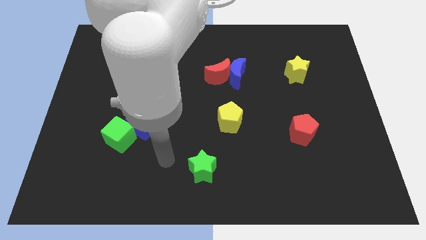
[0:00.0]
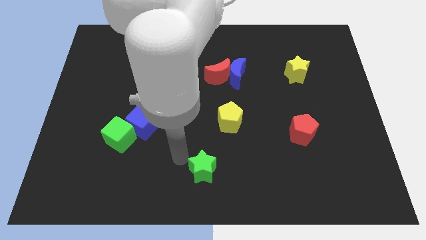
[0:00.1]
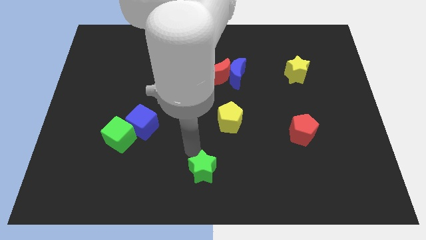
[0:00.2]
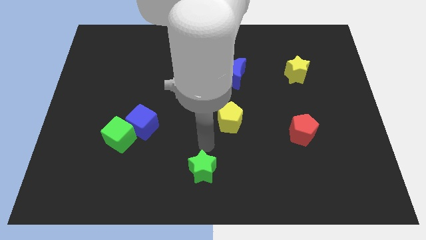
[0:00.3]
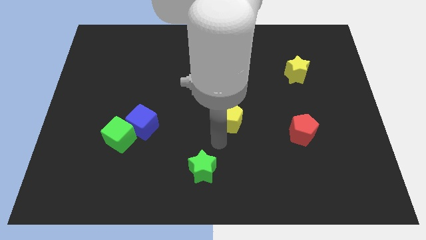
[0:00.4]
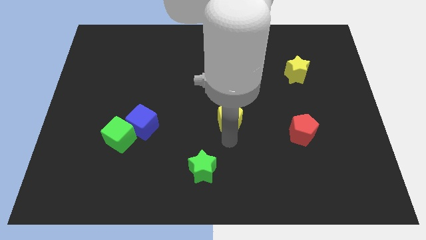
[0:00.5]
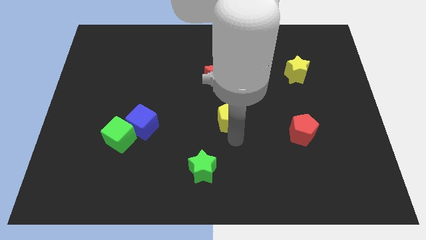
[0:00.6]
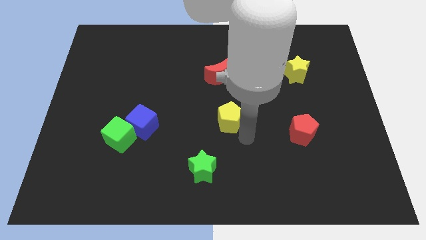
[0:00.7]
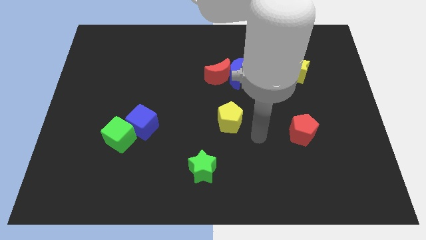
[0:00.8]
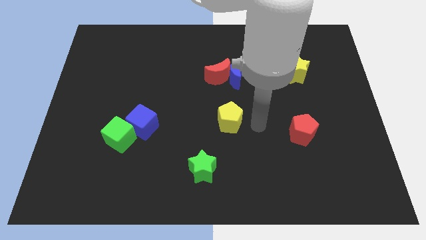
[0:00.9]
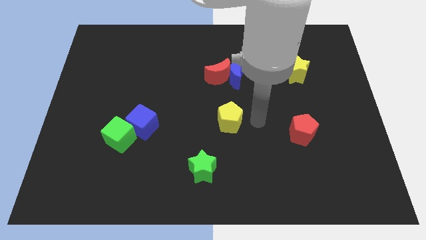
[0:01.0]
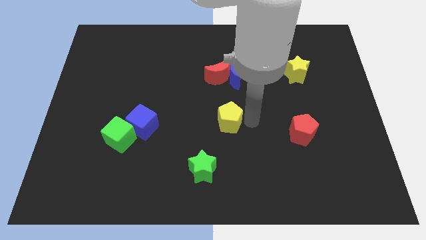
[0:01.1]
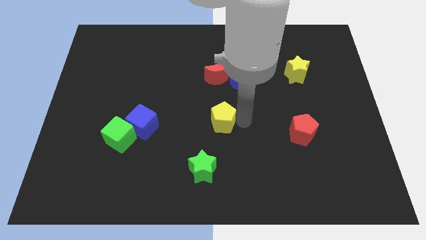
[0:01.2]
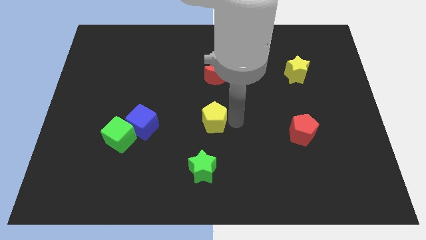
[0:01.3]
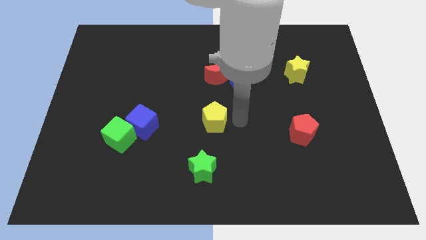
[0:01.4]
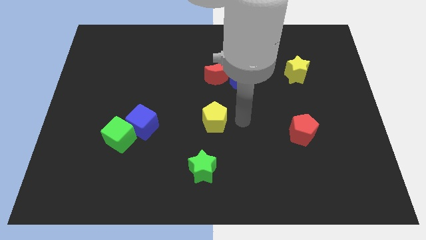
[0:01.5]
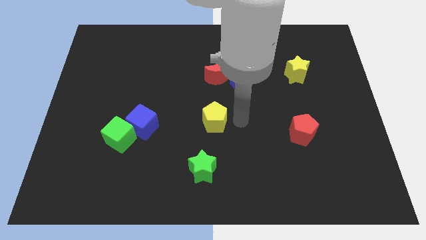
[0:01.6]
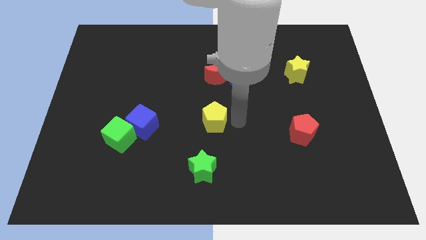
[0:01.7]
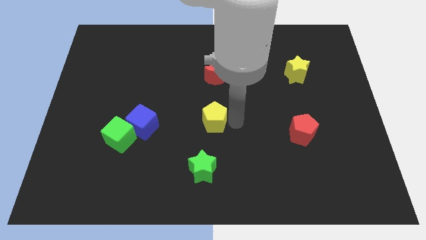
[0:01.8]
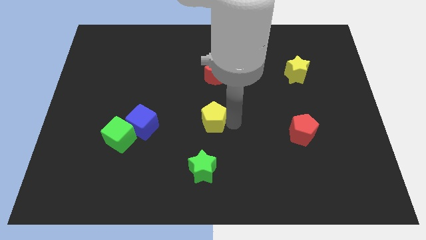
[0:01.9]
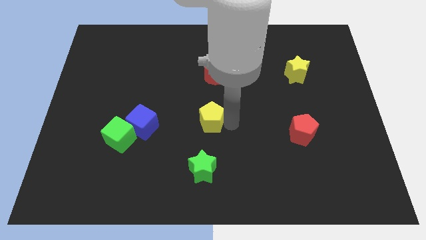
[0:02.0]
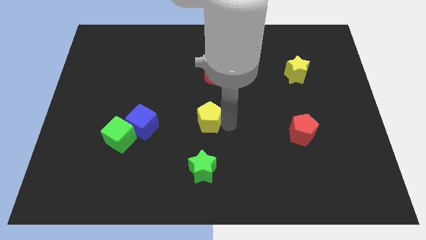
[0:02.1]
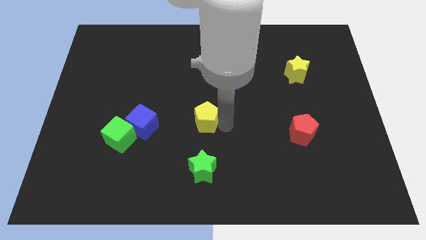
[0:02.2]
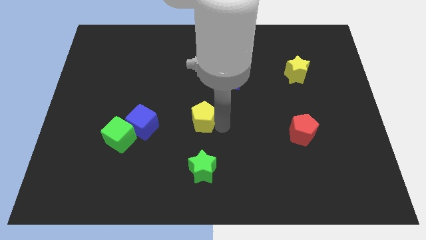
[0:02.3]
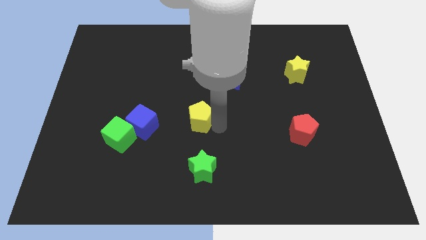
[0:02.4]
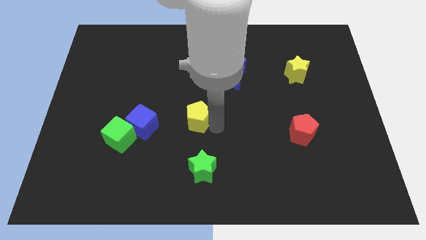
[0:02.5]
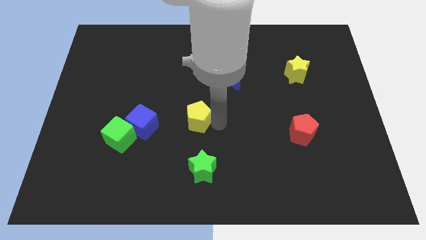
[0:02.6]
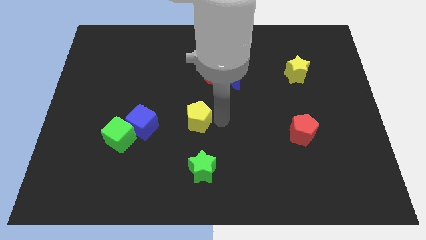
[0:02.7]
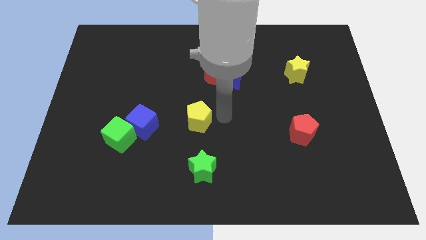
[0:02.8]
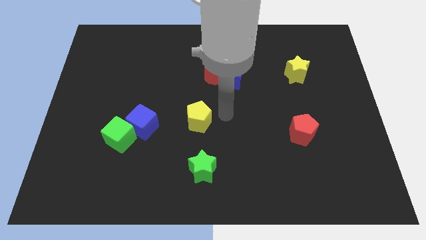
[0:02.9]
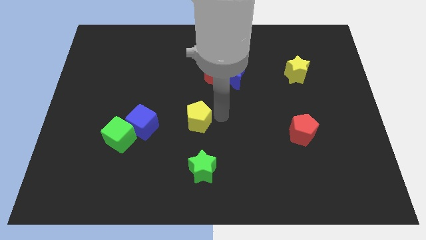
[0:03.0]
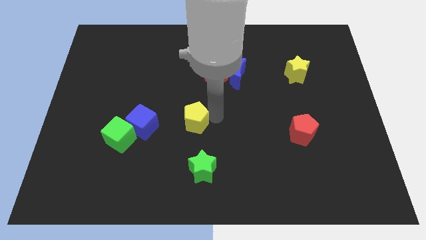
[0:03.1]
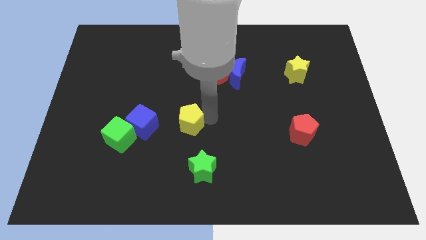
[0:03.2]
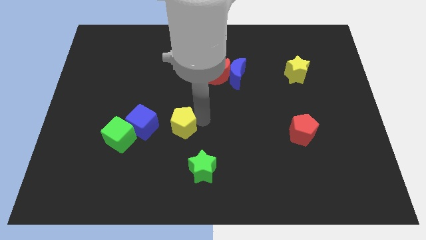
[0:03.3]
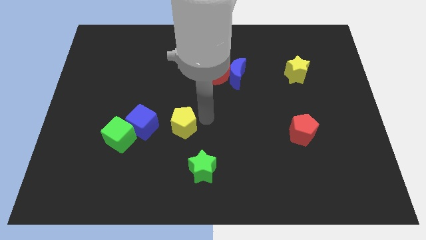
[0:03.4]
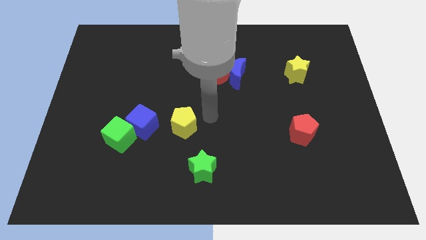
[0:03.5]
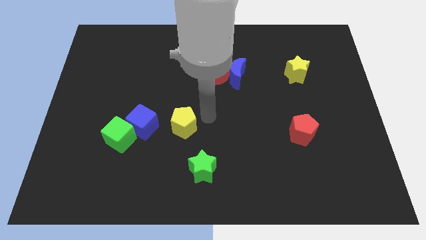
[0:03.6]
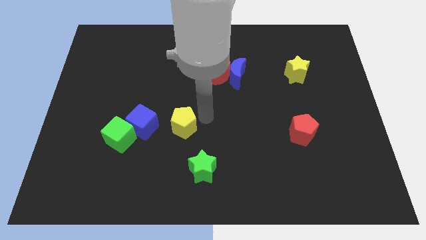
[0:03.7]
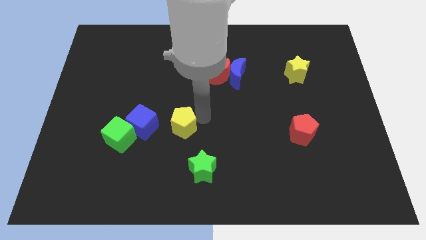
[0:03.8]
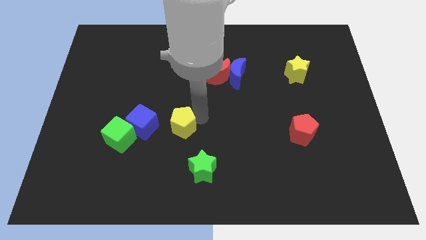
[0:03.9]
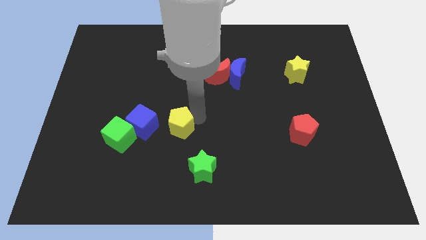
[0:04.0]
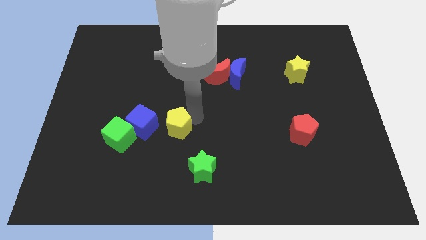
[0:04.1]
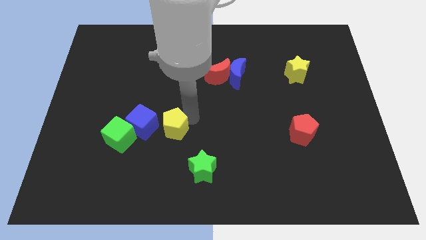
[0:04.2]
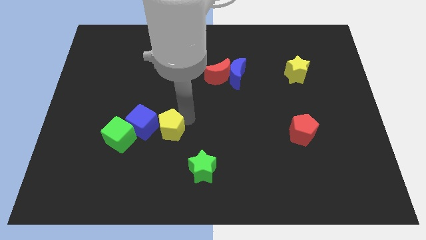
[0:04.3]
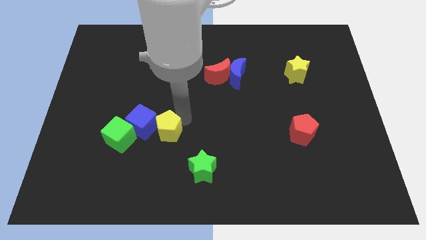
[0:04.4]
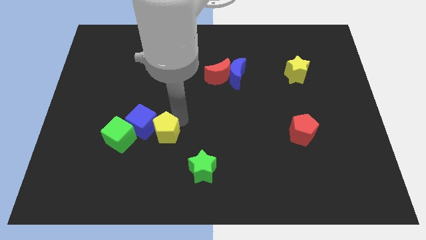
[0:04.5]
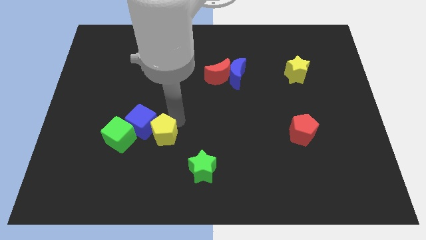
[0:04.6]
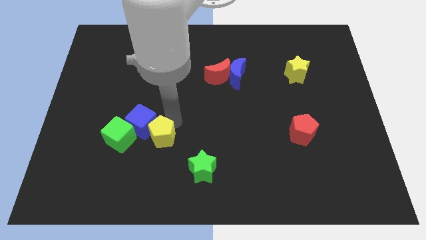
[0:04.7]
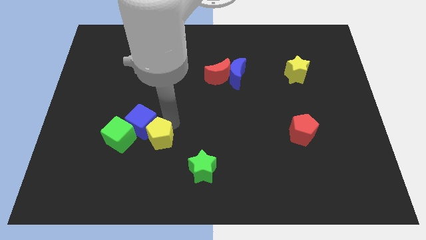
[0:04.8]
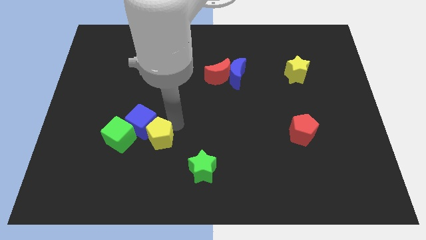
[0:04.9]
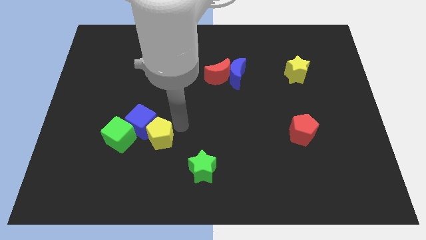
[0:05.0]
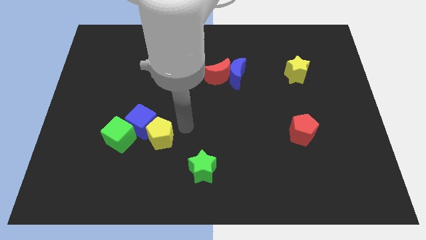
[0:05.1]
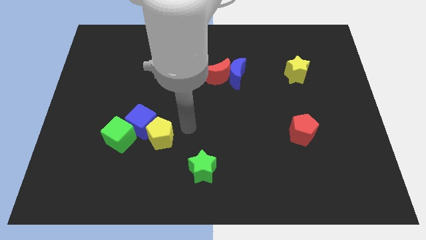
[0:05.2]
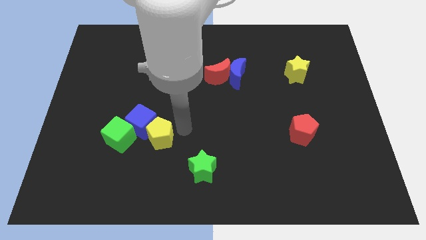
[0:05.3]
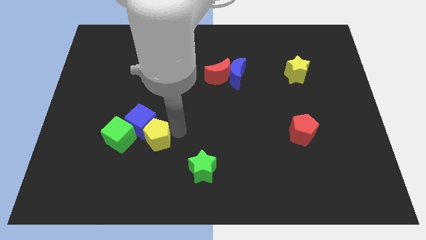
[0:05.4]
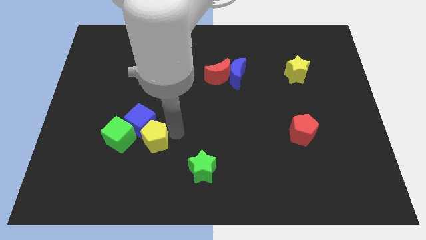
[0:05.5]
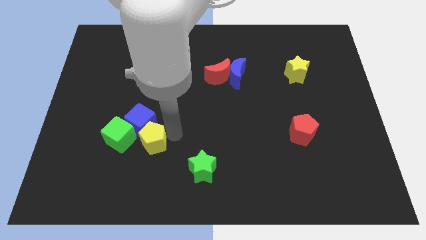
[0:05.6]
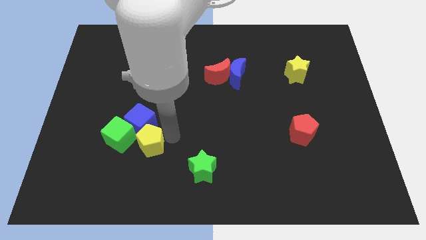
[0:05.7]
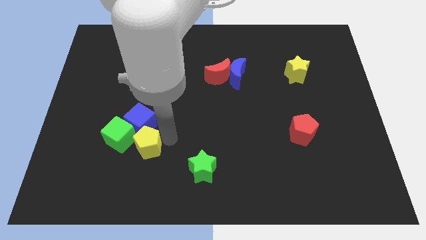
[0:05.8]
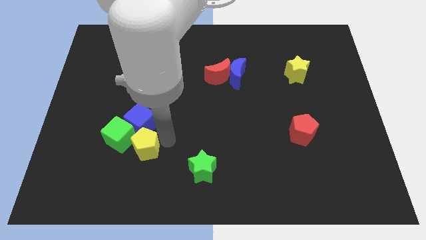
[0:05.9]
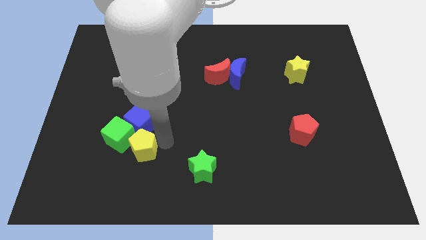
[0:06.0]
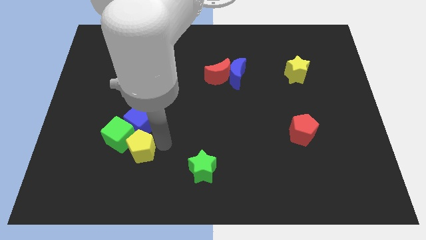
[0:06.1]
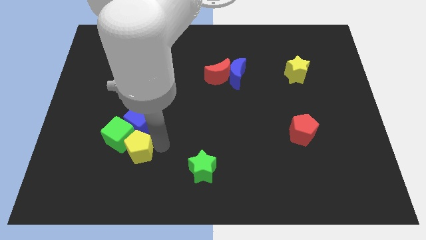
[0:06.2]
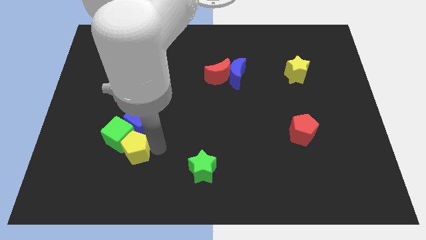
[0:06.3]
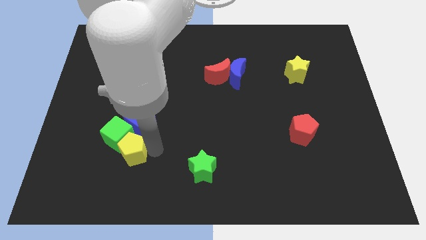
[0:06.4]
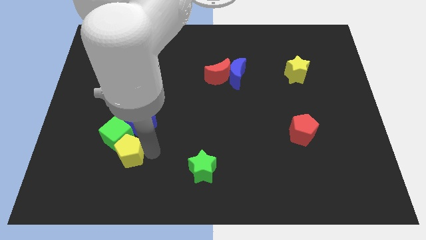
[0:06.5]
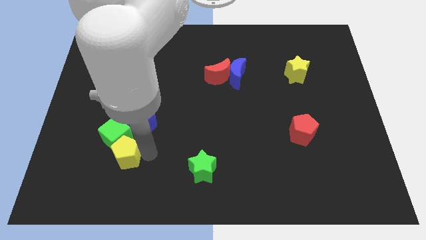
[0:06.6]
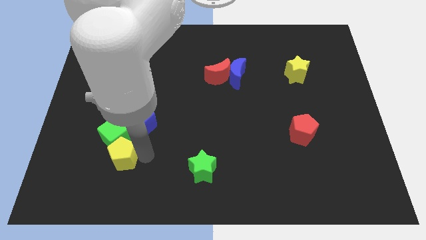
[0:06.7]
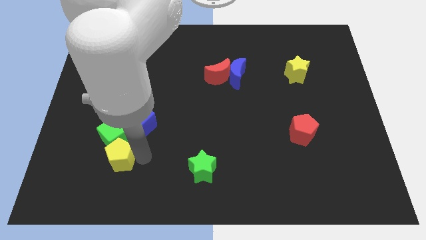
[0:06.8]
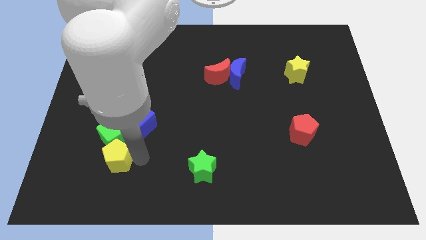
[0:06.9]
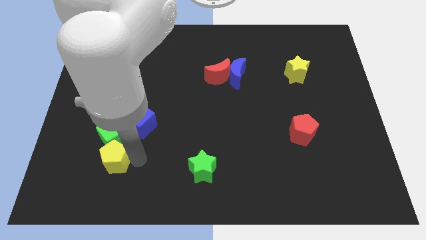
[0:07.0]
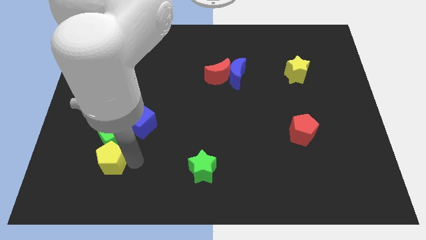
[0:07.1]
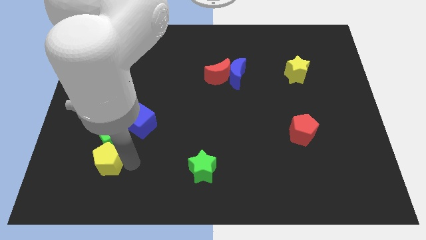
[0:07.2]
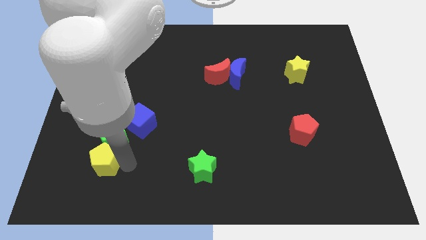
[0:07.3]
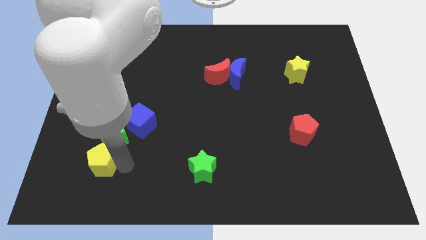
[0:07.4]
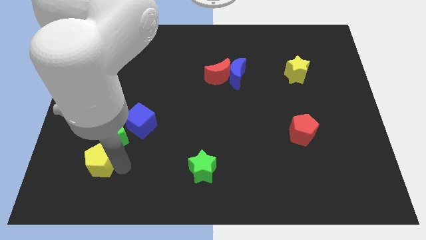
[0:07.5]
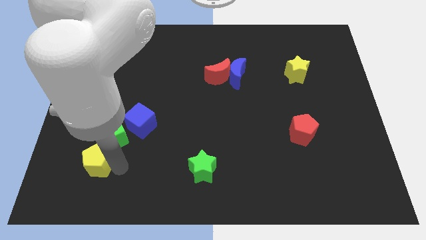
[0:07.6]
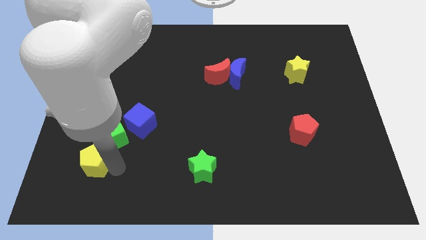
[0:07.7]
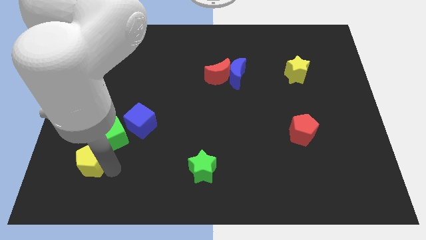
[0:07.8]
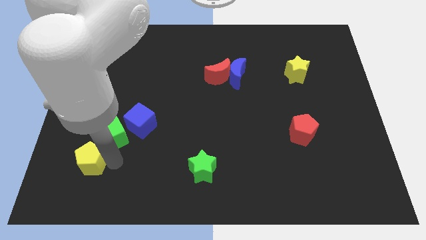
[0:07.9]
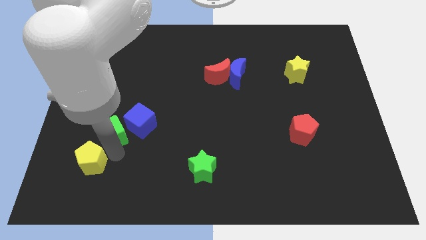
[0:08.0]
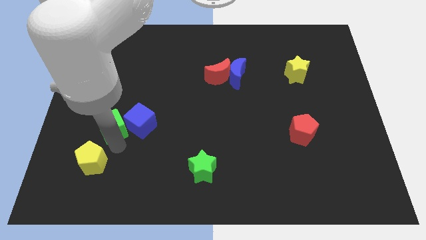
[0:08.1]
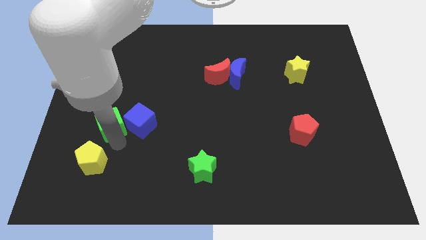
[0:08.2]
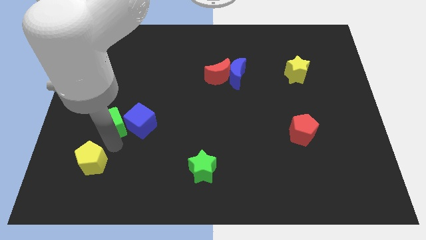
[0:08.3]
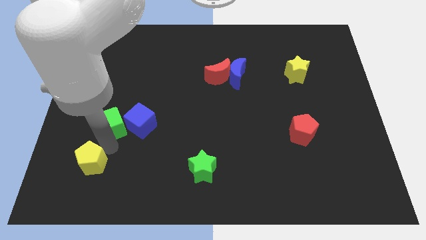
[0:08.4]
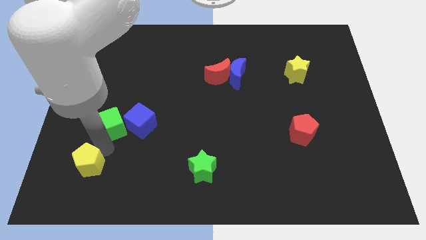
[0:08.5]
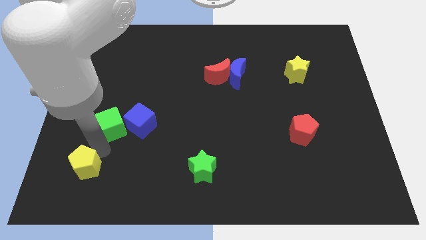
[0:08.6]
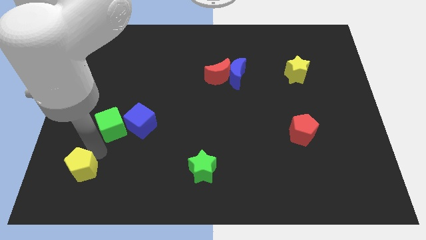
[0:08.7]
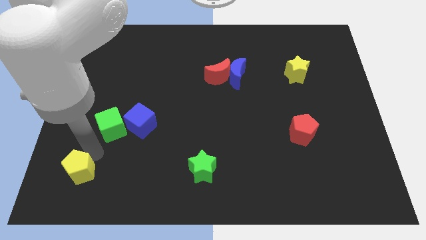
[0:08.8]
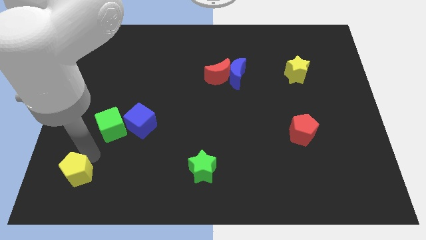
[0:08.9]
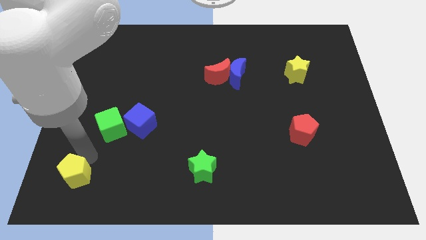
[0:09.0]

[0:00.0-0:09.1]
move the yellow pentagon to the lower left corner
